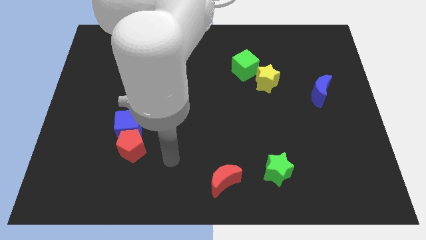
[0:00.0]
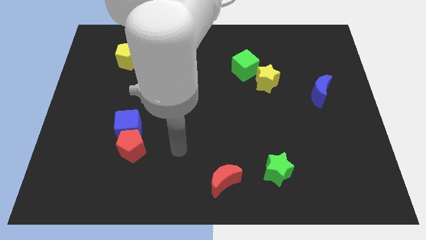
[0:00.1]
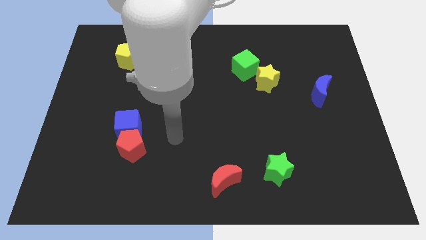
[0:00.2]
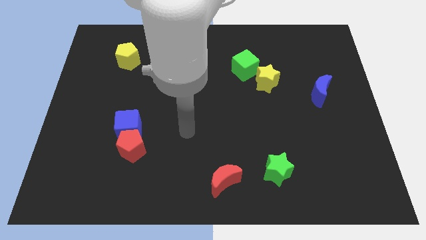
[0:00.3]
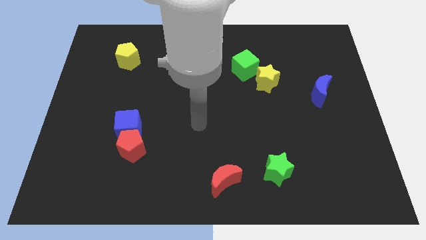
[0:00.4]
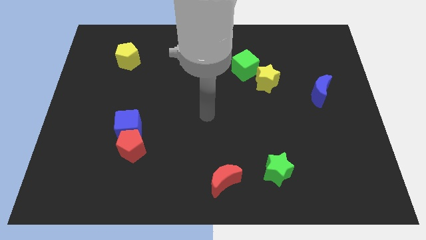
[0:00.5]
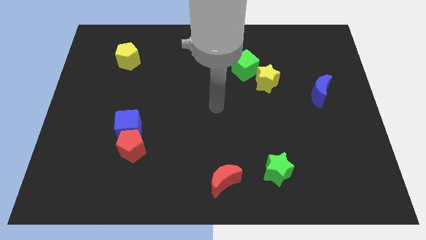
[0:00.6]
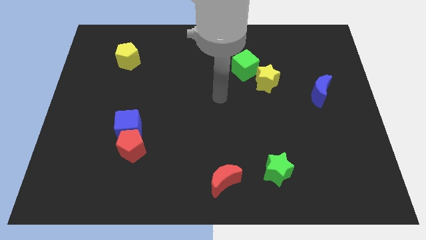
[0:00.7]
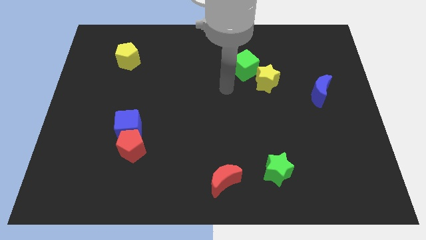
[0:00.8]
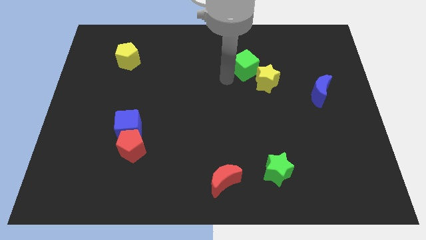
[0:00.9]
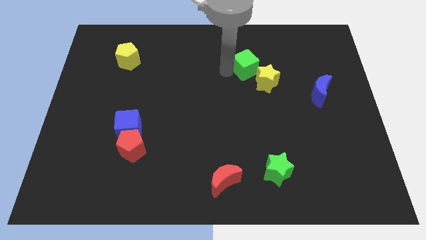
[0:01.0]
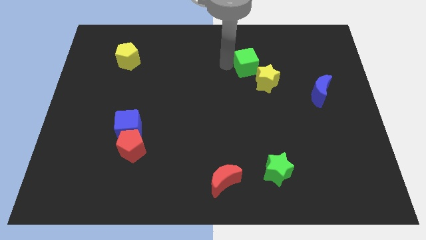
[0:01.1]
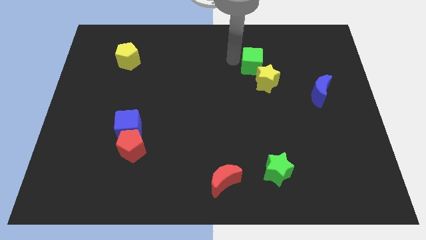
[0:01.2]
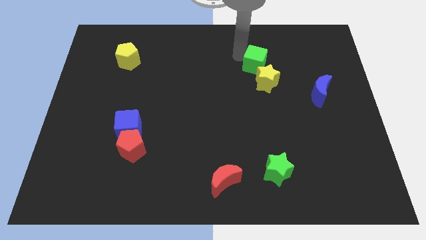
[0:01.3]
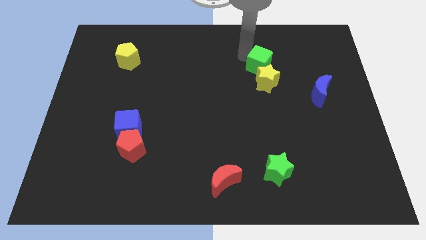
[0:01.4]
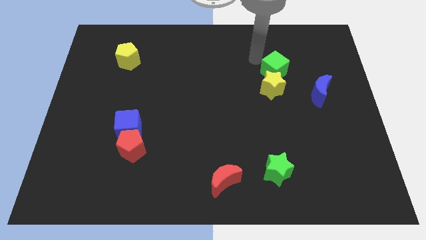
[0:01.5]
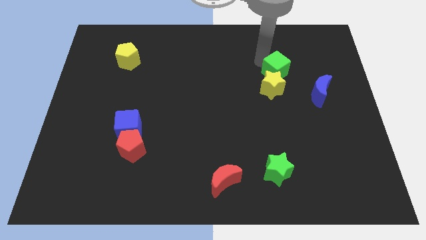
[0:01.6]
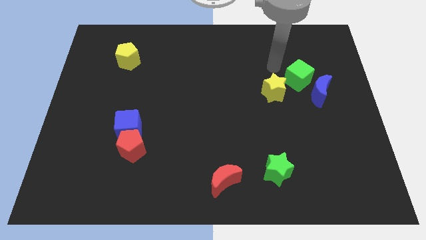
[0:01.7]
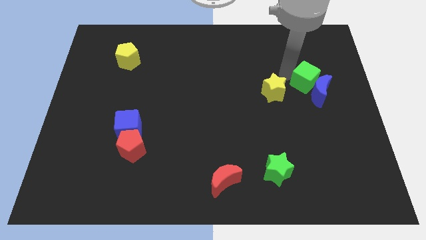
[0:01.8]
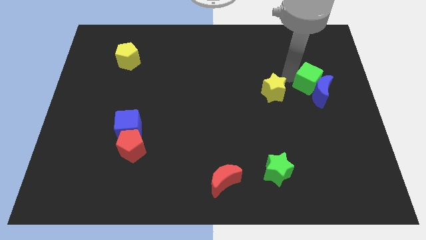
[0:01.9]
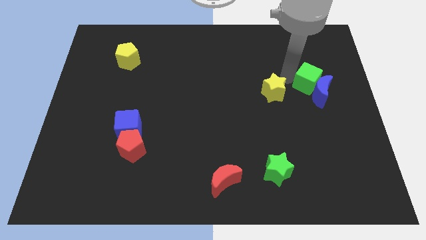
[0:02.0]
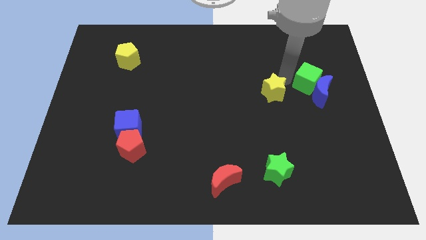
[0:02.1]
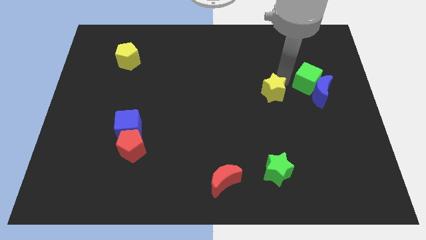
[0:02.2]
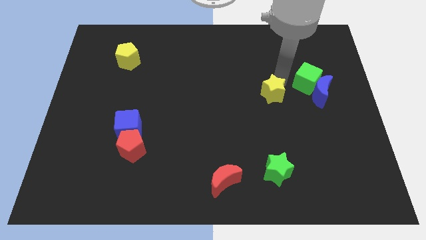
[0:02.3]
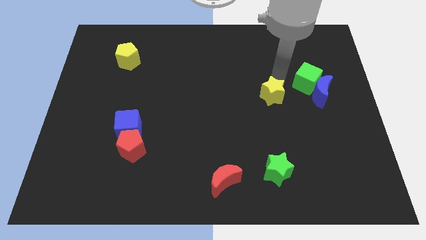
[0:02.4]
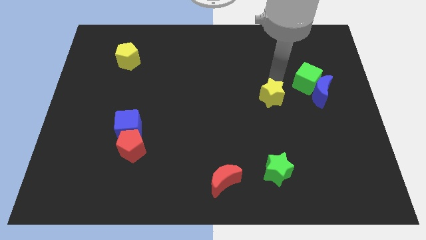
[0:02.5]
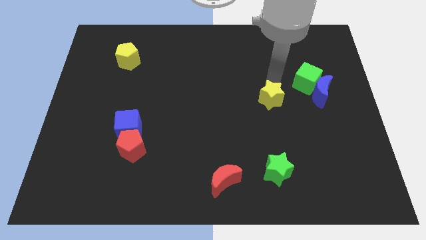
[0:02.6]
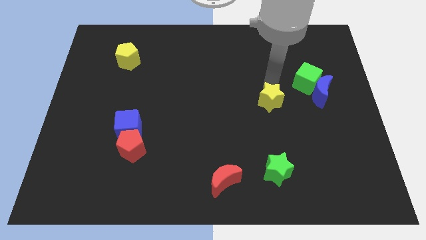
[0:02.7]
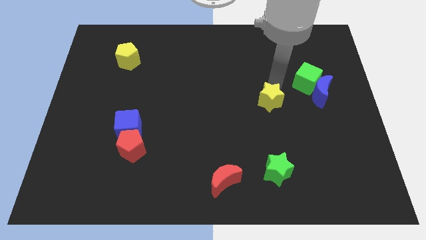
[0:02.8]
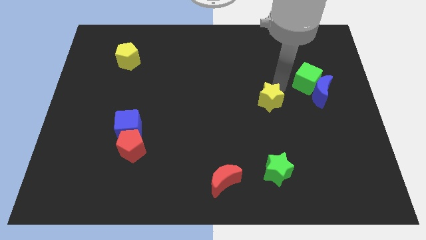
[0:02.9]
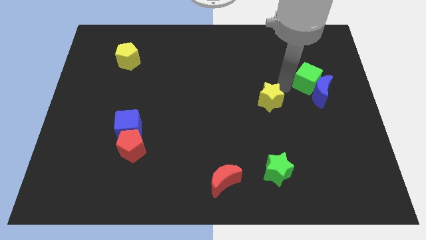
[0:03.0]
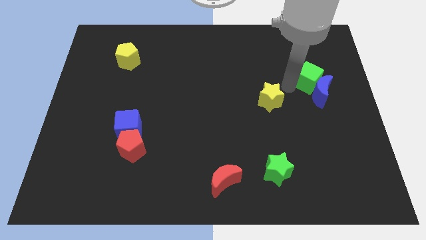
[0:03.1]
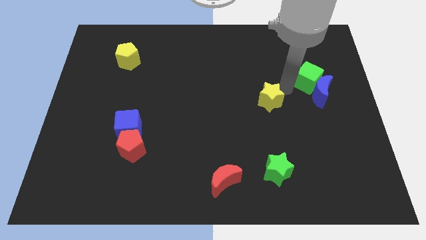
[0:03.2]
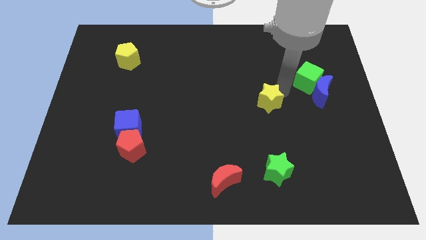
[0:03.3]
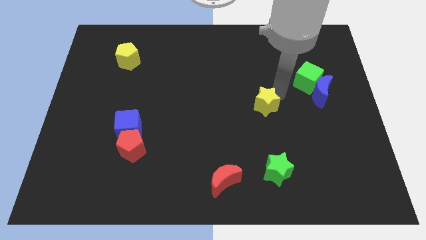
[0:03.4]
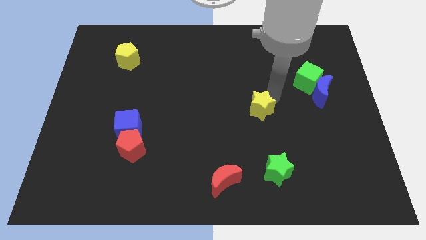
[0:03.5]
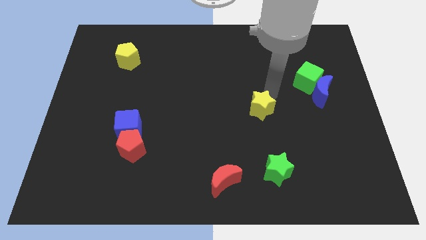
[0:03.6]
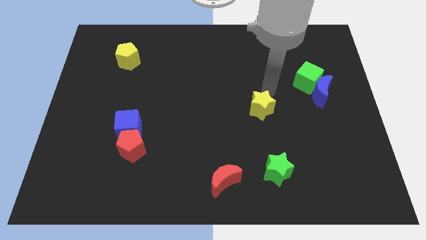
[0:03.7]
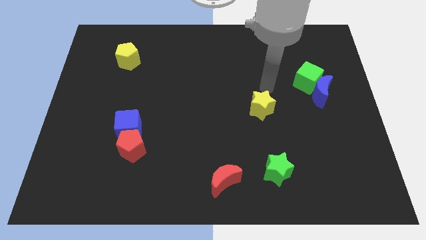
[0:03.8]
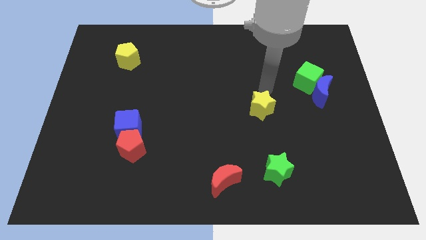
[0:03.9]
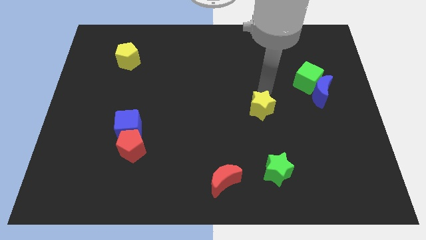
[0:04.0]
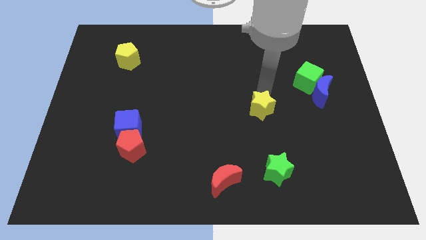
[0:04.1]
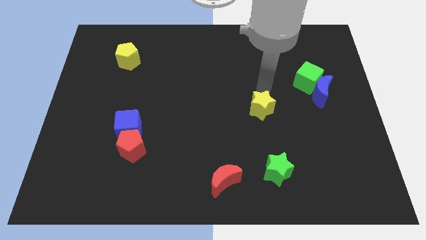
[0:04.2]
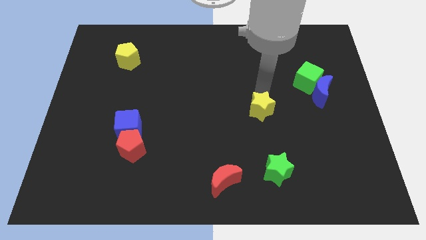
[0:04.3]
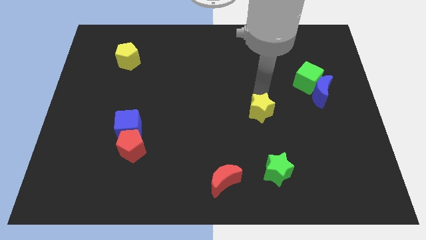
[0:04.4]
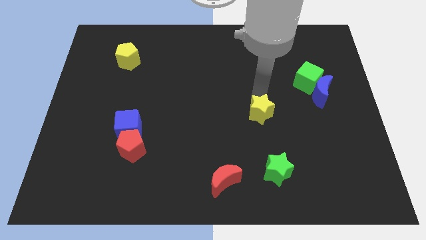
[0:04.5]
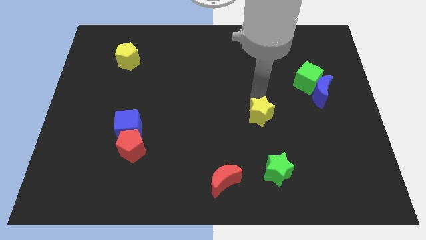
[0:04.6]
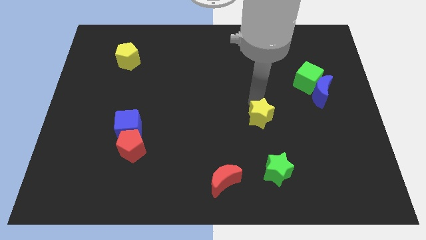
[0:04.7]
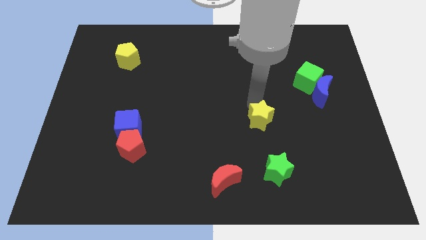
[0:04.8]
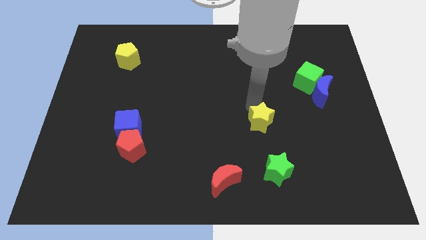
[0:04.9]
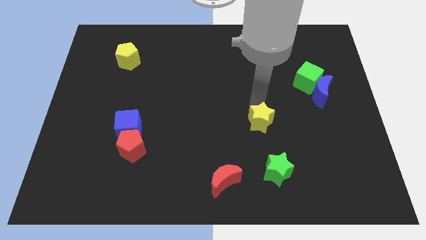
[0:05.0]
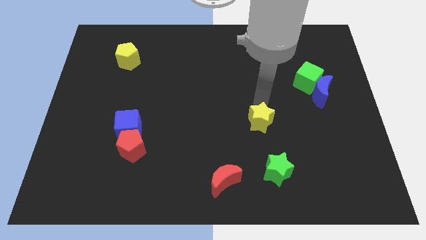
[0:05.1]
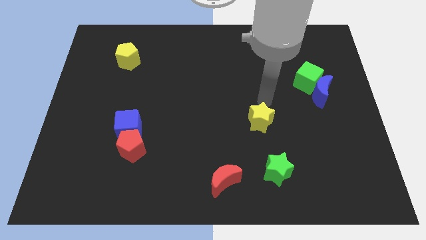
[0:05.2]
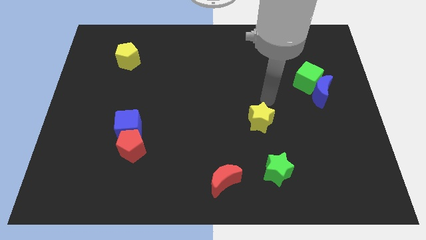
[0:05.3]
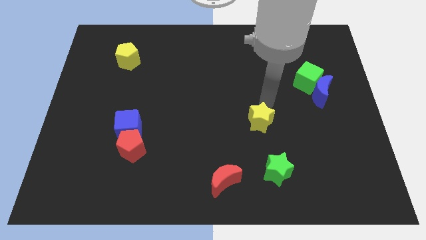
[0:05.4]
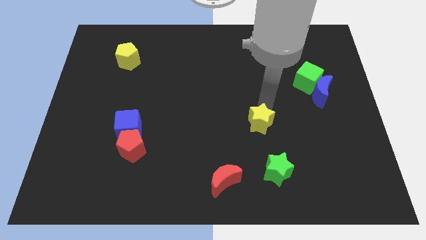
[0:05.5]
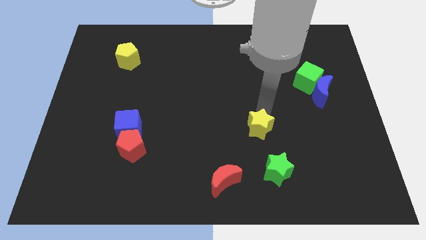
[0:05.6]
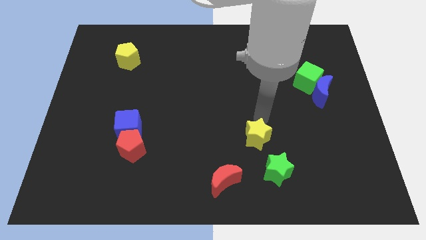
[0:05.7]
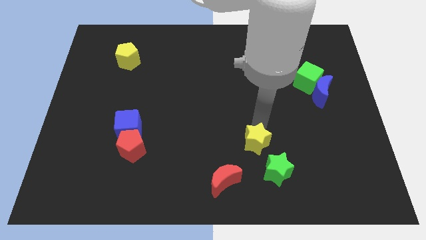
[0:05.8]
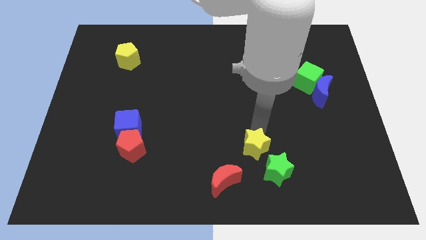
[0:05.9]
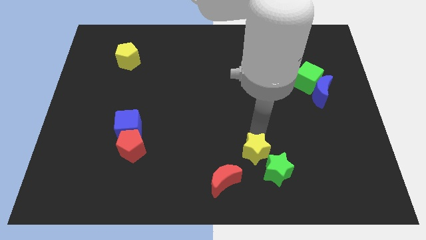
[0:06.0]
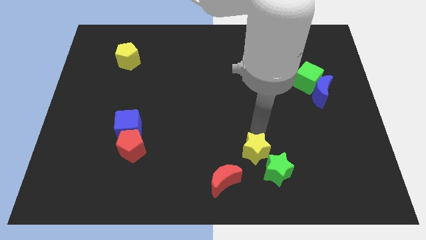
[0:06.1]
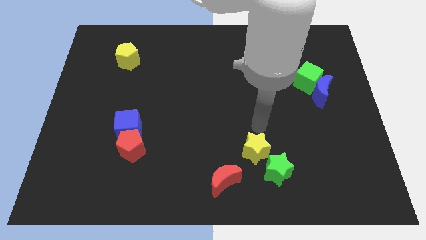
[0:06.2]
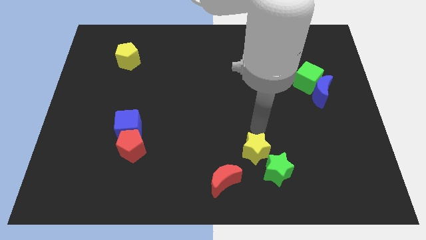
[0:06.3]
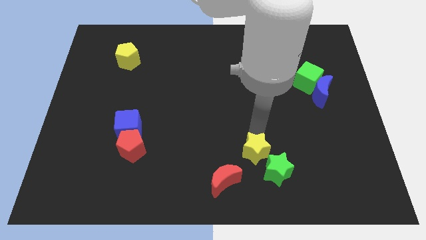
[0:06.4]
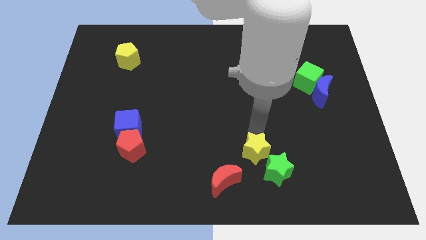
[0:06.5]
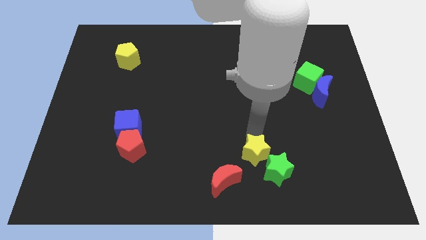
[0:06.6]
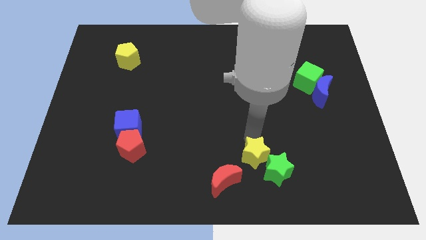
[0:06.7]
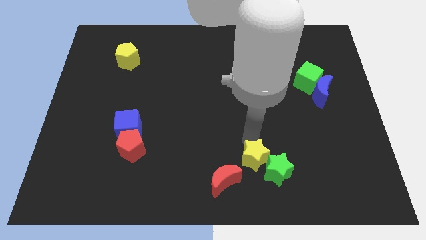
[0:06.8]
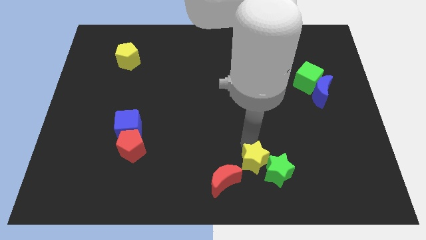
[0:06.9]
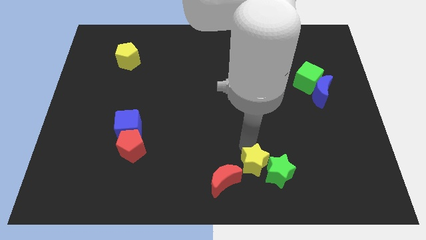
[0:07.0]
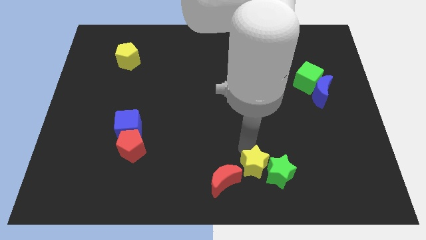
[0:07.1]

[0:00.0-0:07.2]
move the yellow star to the bottom
